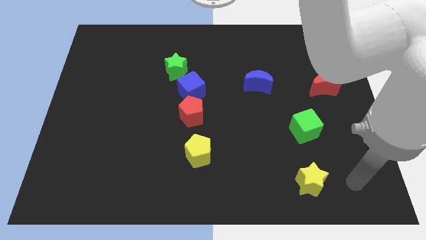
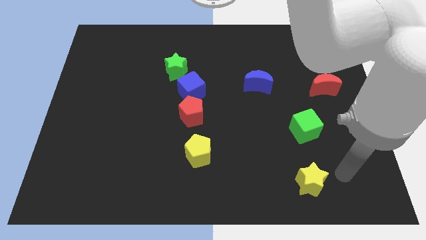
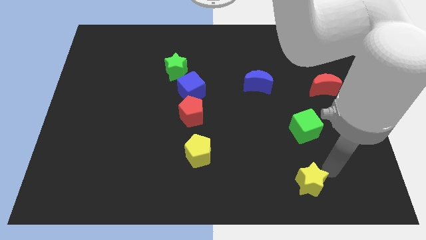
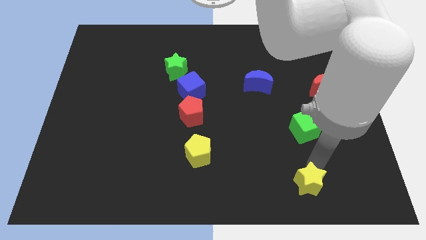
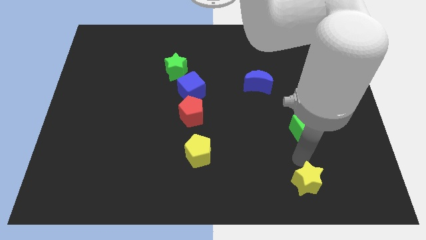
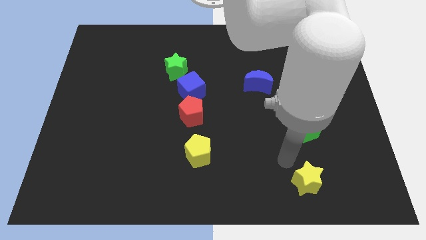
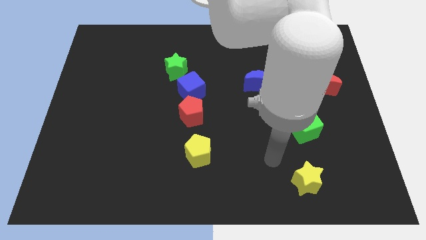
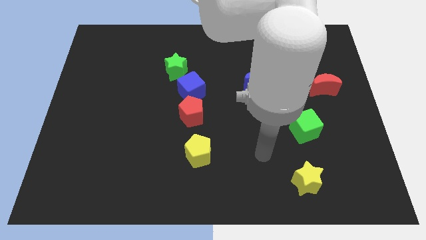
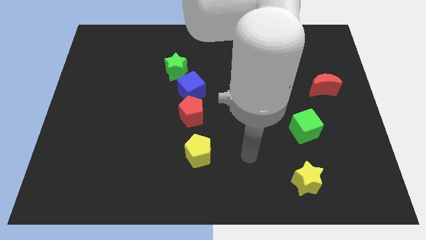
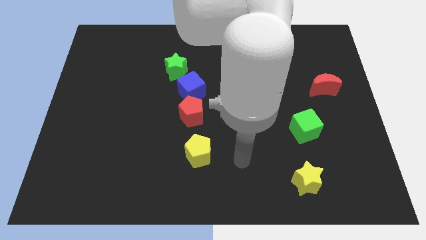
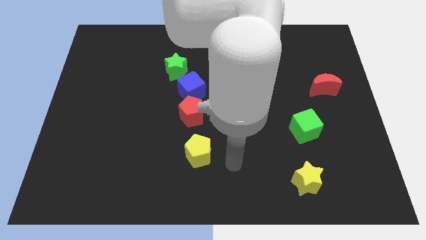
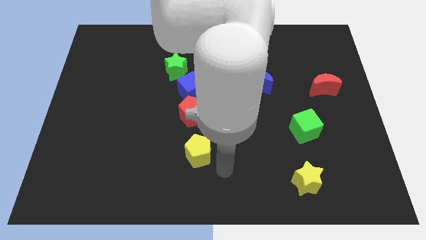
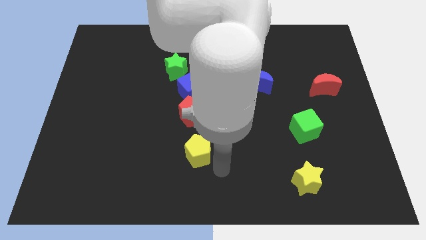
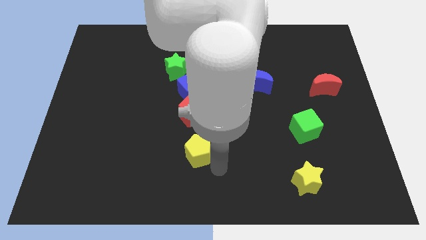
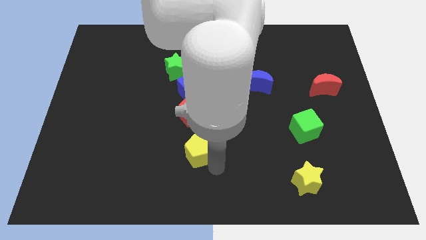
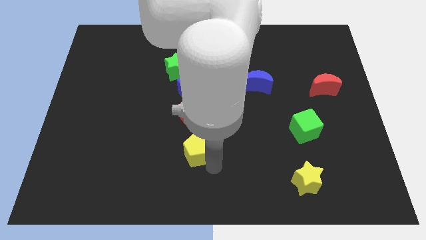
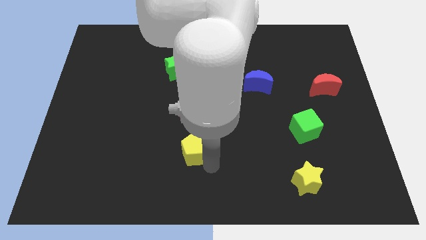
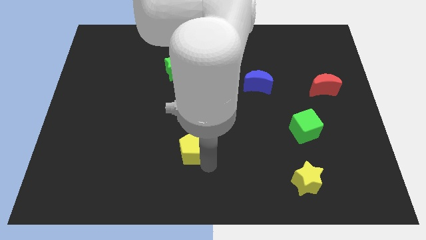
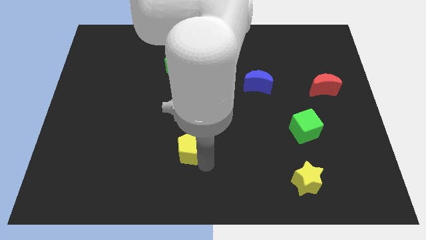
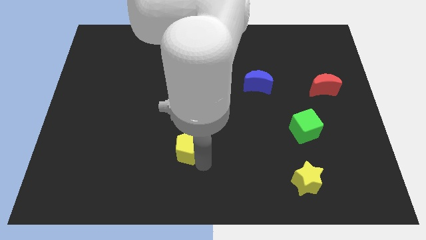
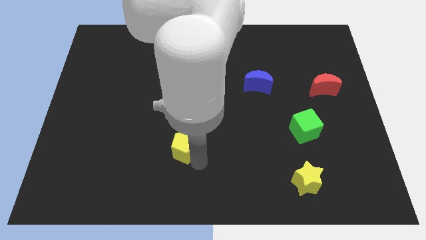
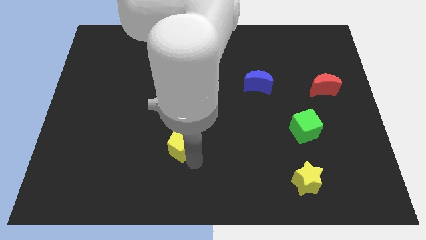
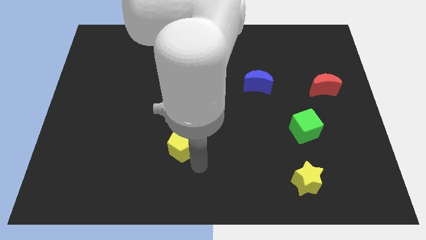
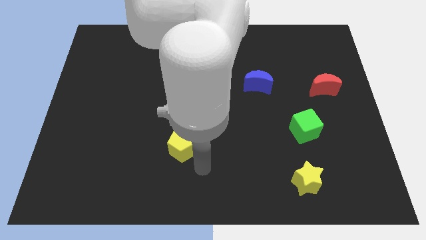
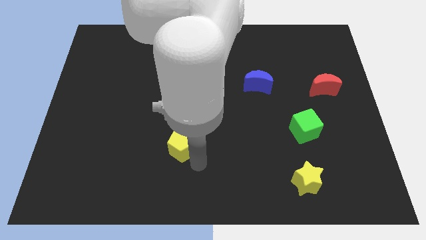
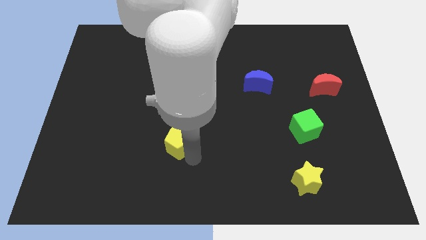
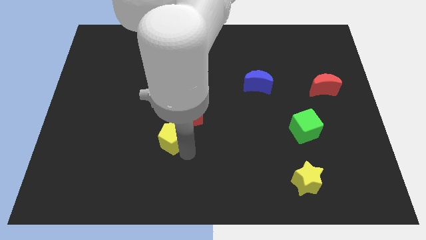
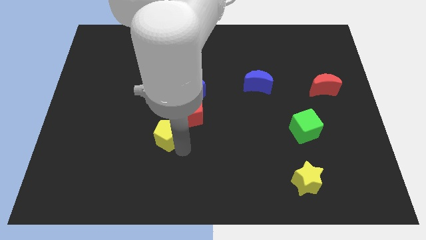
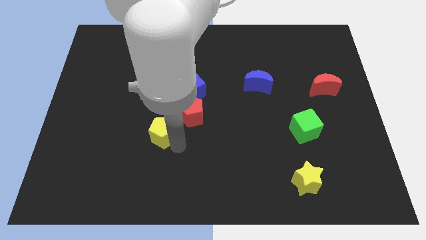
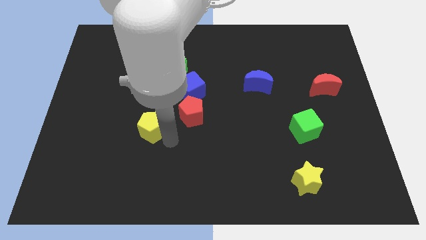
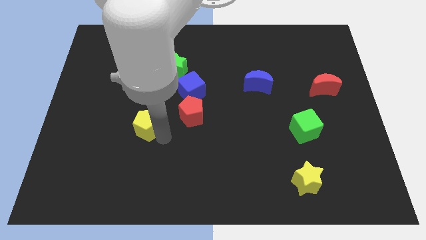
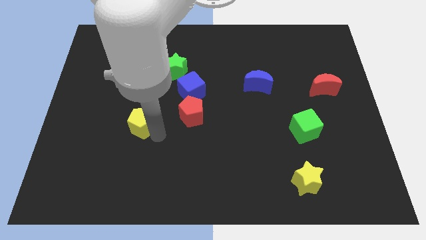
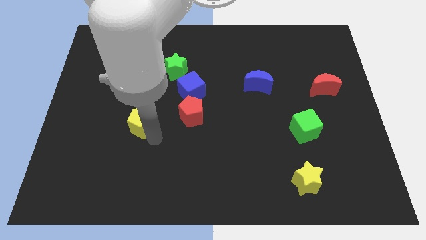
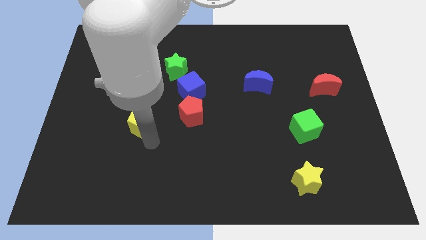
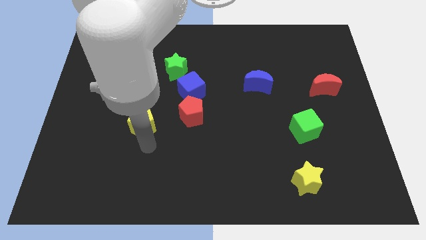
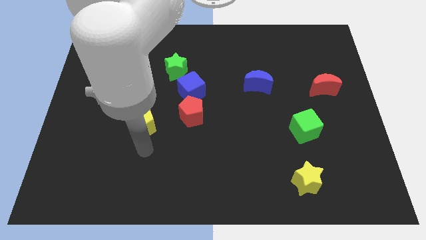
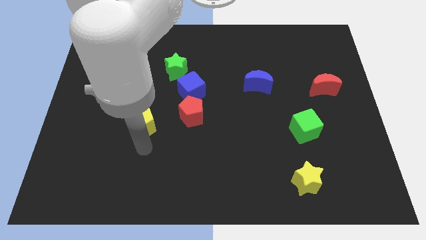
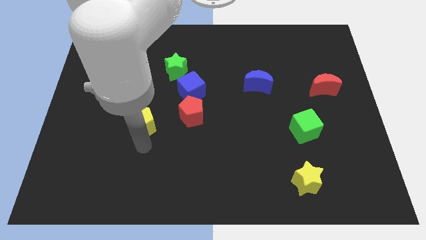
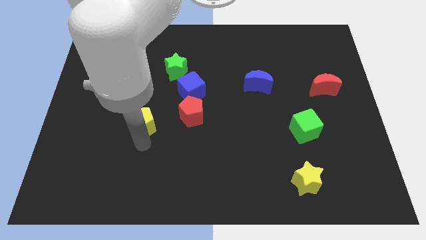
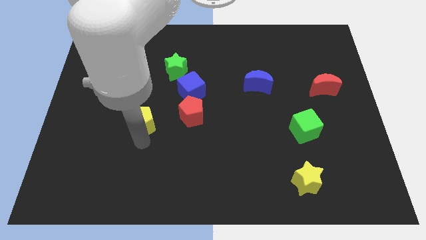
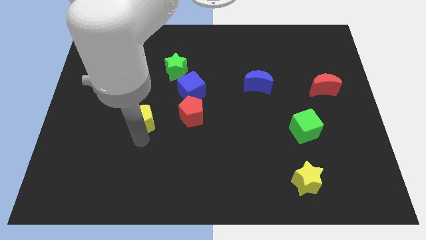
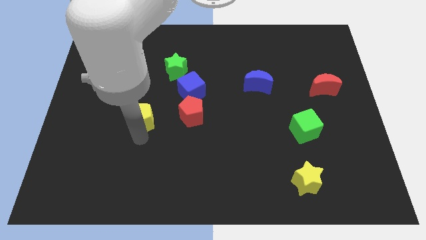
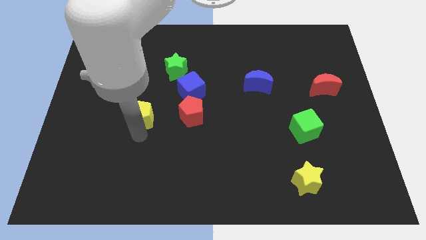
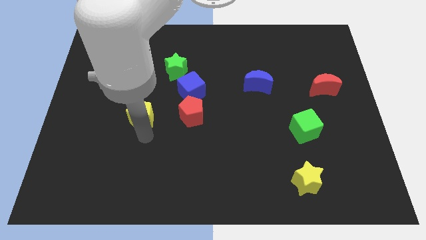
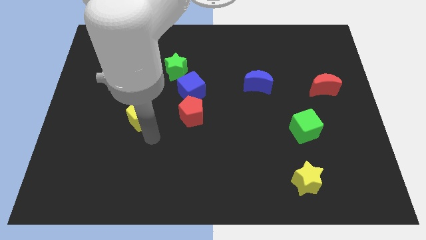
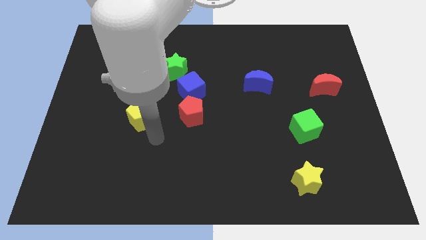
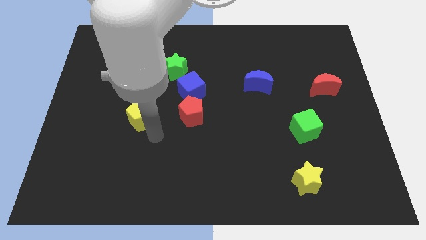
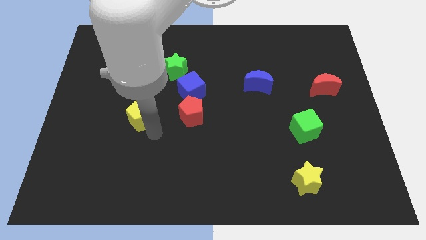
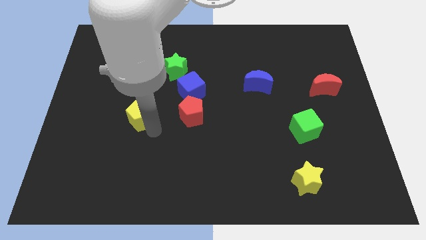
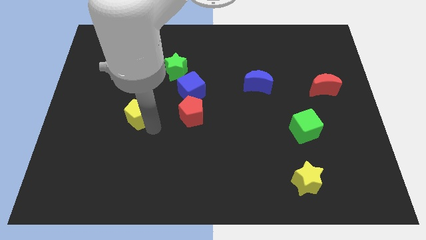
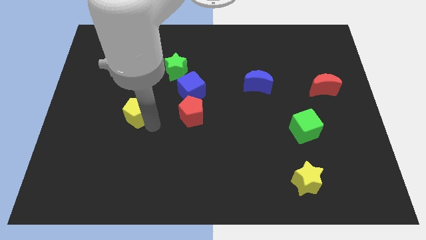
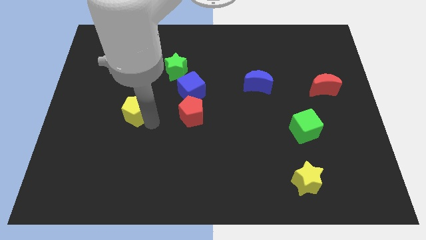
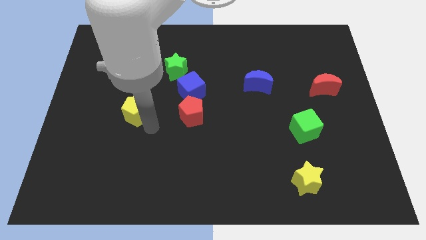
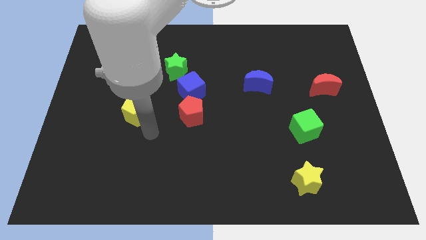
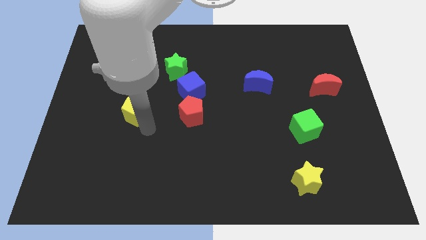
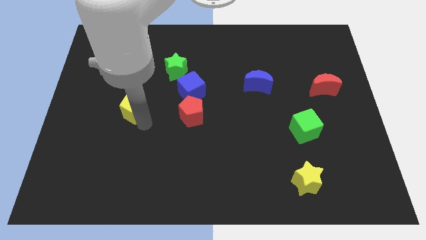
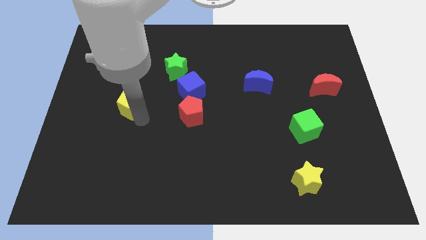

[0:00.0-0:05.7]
push the yellow pentagon upwards and then to the left

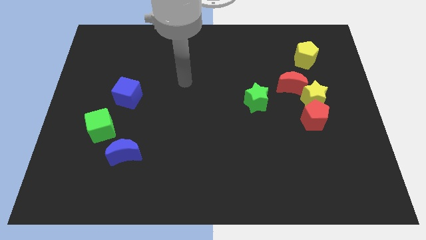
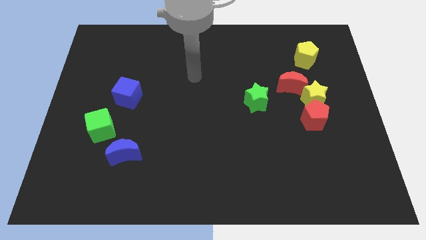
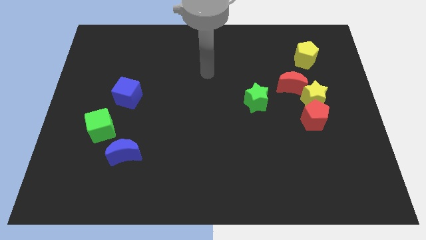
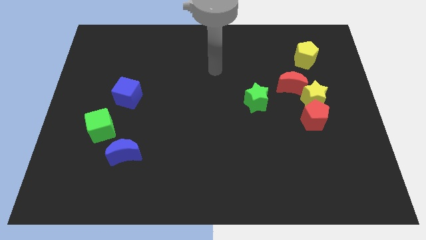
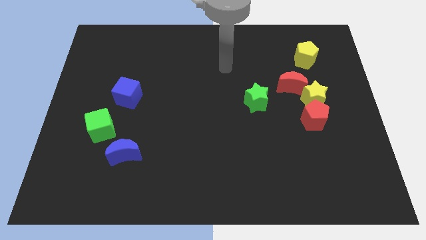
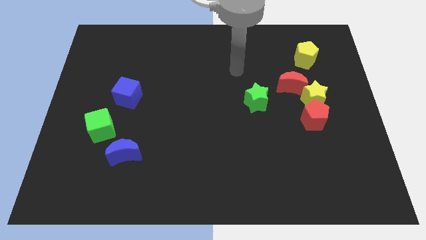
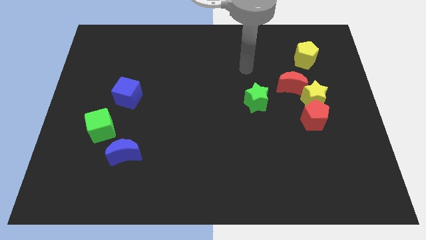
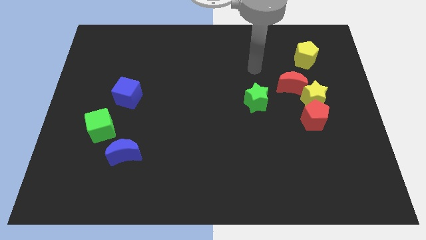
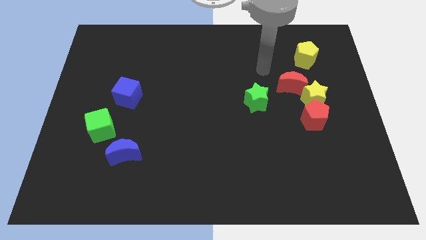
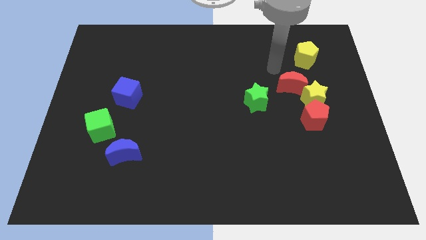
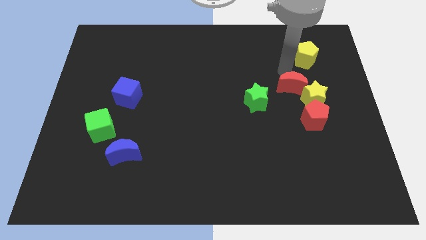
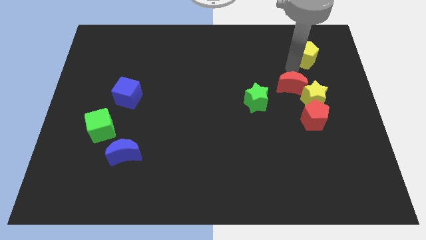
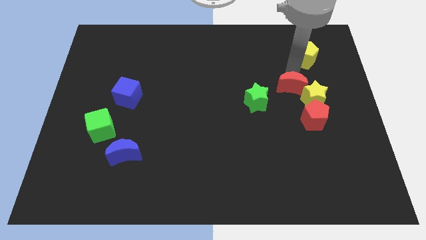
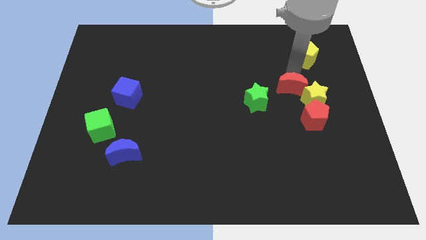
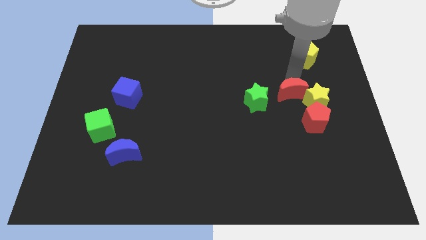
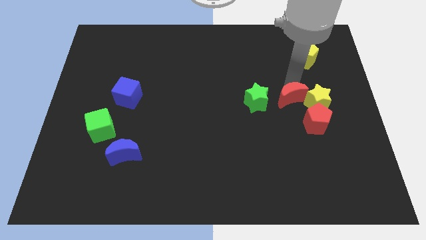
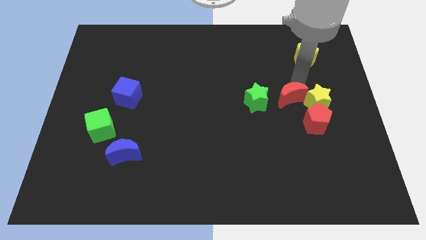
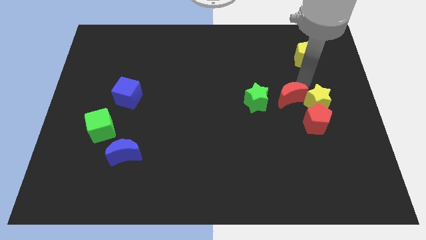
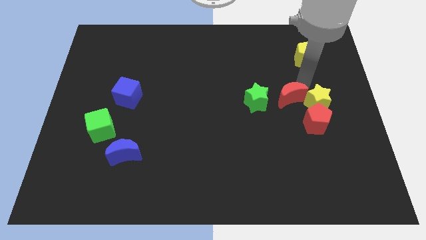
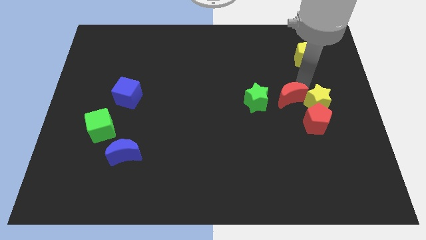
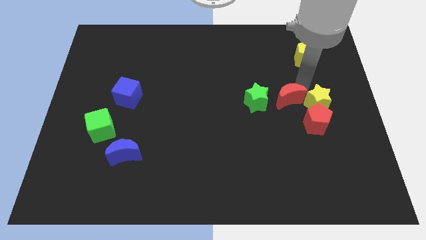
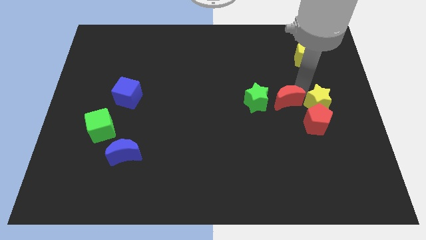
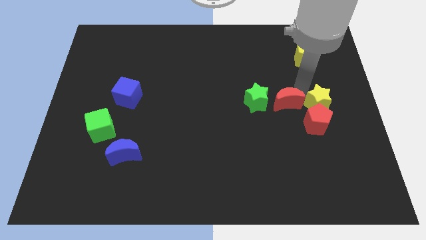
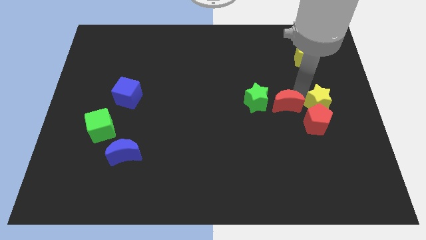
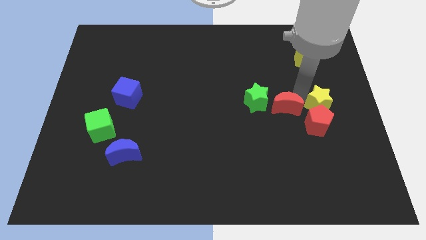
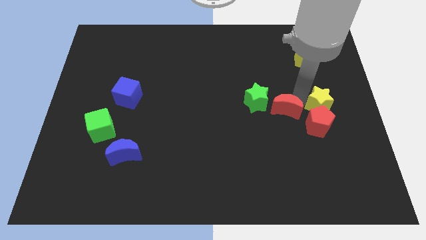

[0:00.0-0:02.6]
slightly push the red moon down
